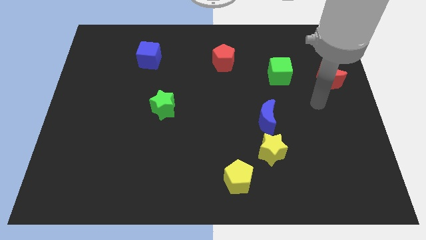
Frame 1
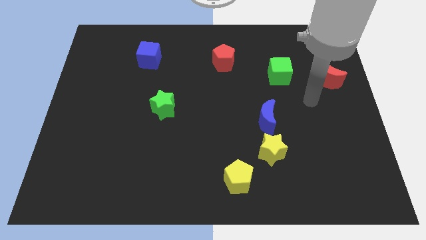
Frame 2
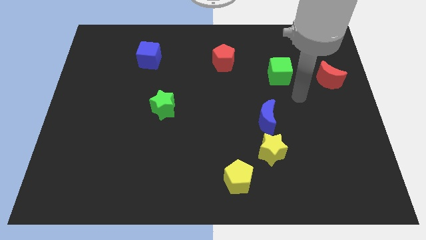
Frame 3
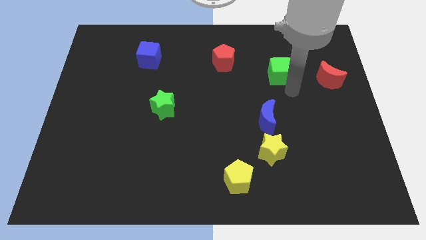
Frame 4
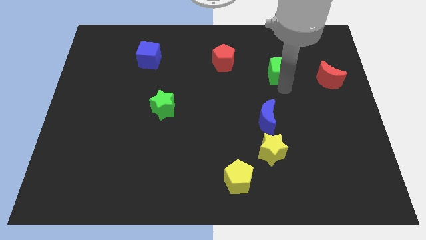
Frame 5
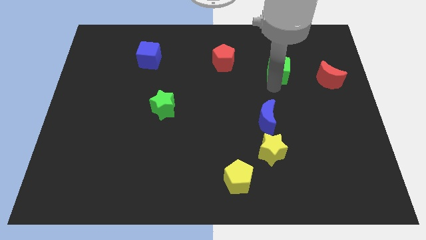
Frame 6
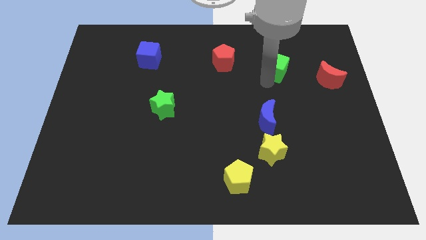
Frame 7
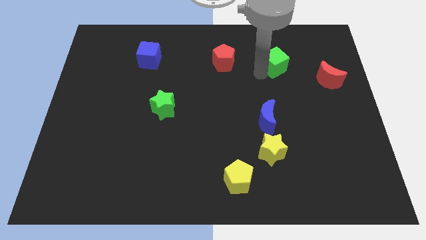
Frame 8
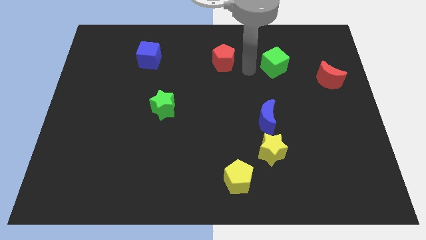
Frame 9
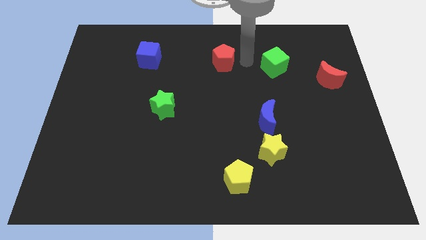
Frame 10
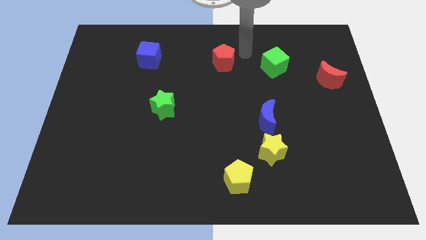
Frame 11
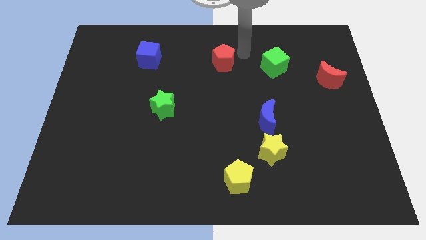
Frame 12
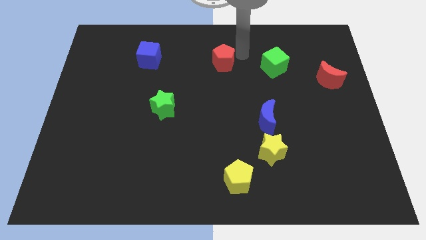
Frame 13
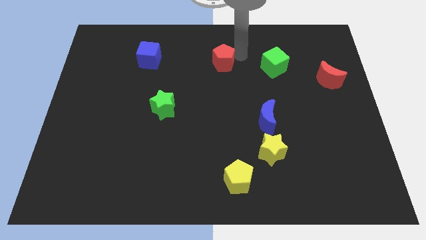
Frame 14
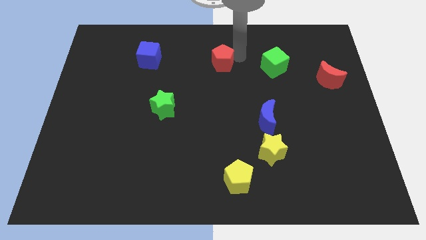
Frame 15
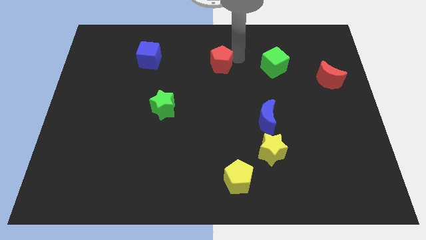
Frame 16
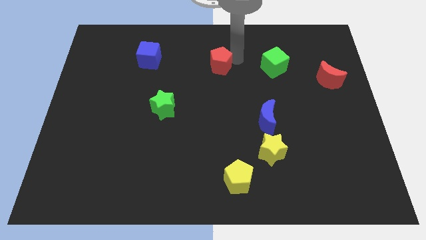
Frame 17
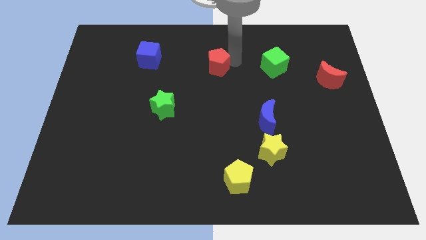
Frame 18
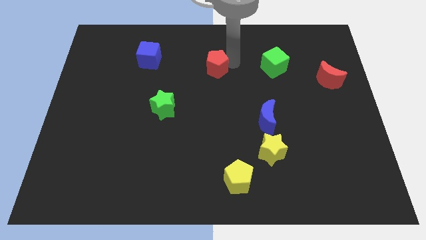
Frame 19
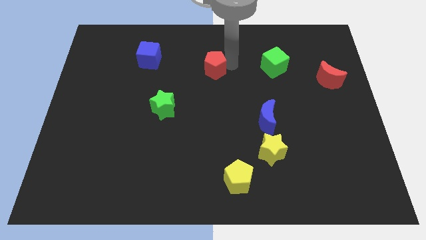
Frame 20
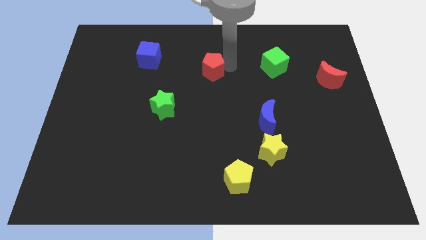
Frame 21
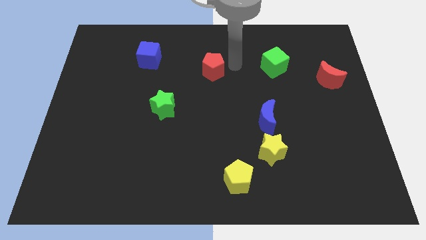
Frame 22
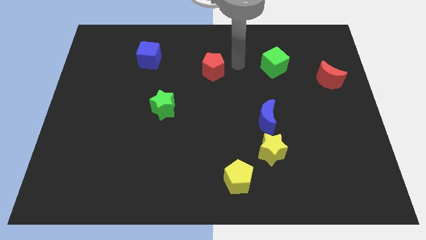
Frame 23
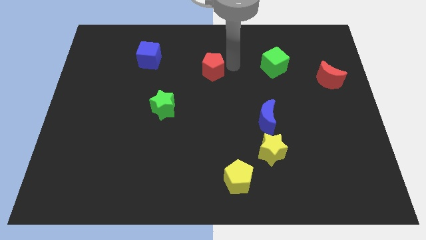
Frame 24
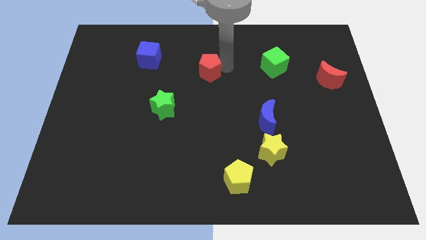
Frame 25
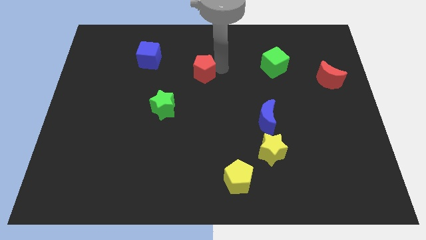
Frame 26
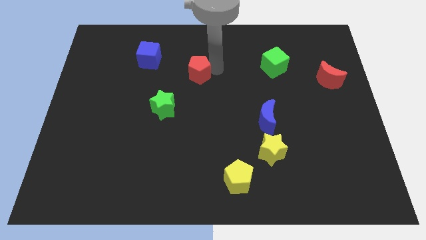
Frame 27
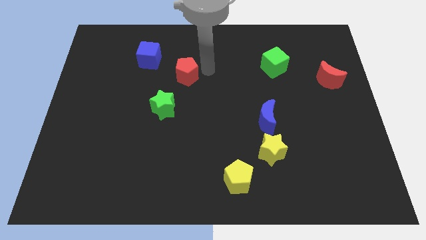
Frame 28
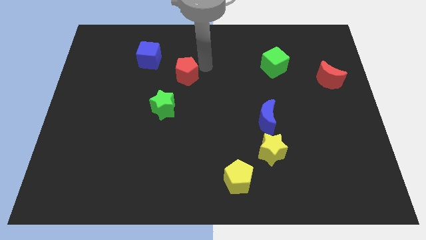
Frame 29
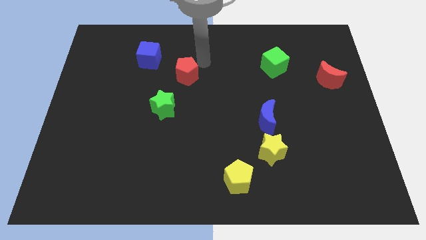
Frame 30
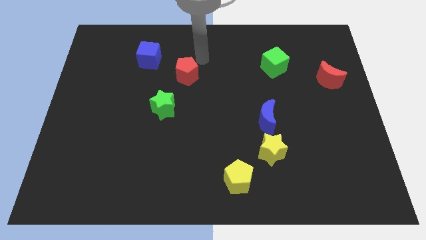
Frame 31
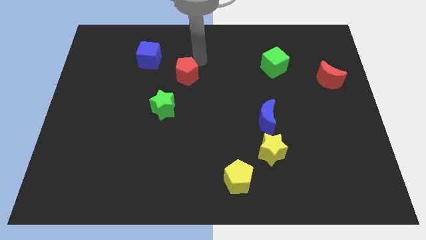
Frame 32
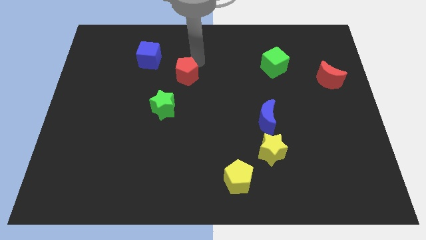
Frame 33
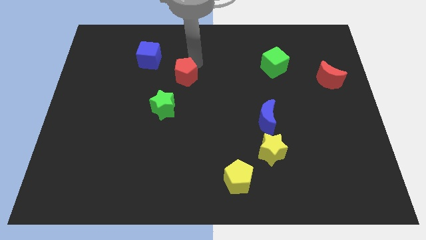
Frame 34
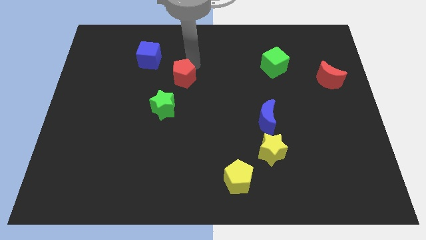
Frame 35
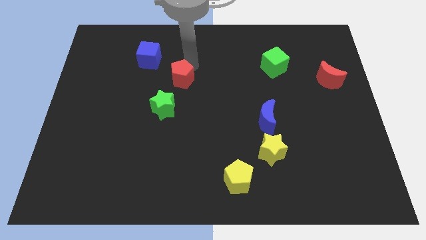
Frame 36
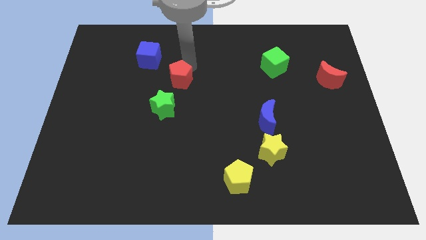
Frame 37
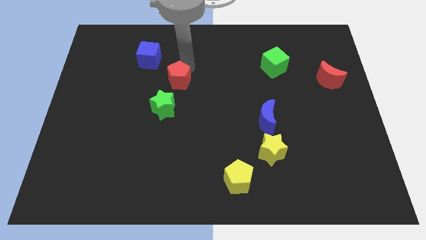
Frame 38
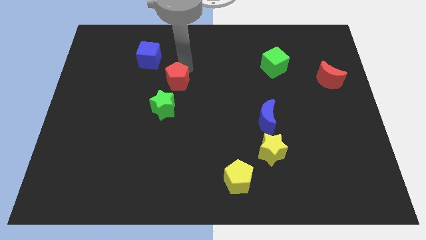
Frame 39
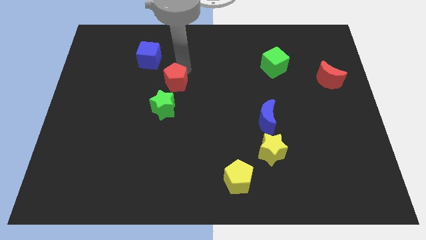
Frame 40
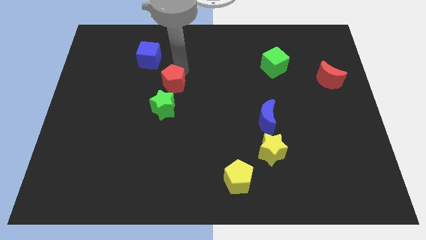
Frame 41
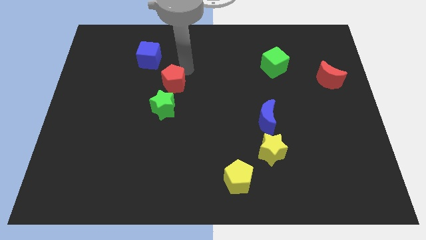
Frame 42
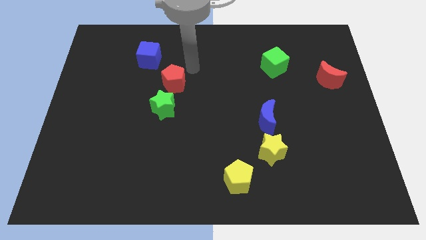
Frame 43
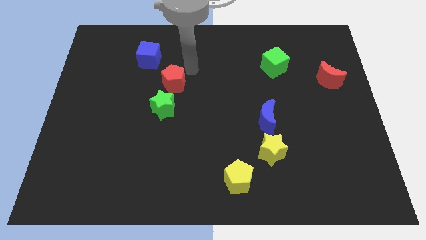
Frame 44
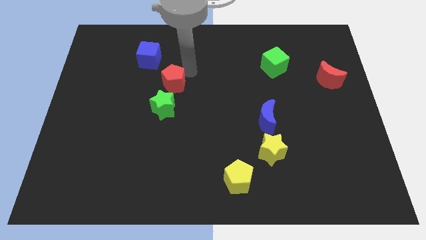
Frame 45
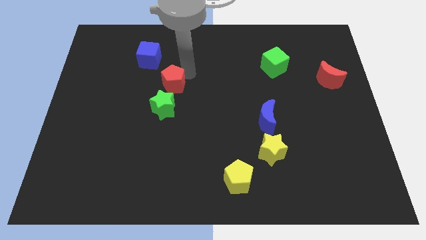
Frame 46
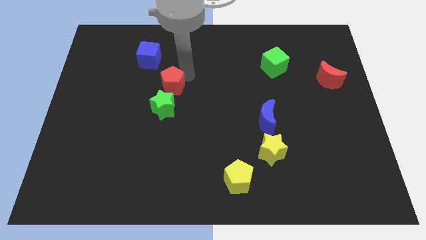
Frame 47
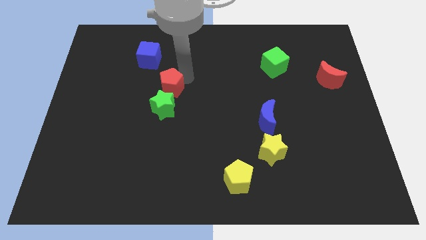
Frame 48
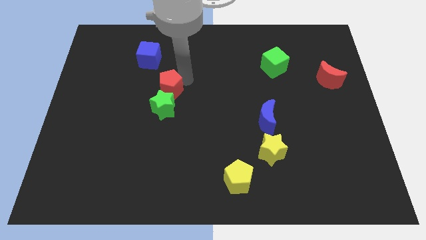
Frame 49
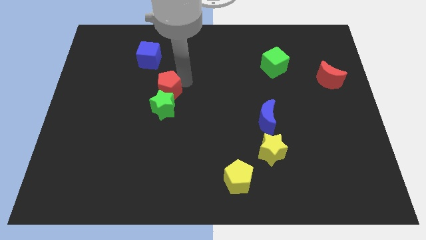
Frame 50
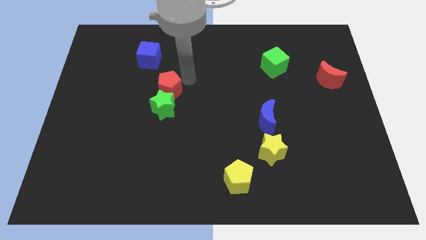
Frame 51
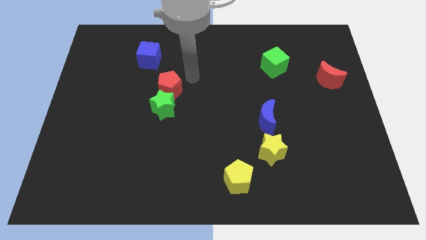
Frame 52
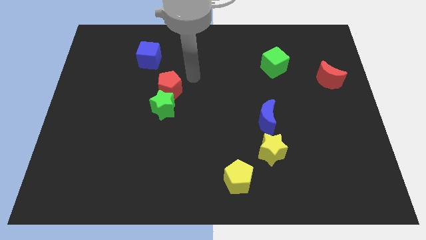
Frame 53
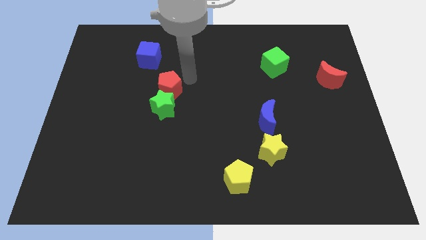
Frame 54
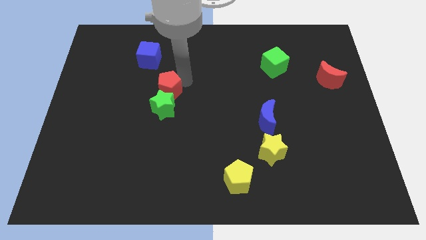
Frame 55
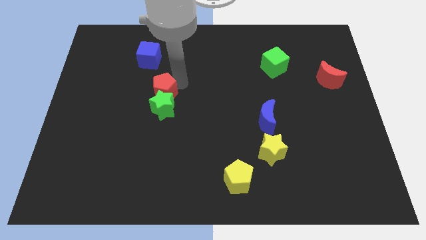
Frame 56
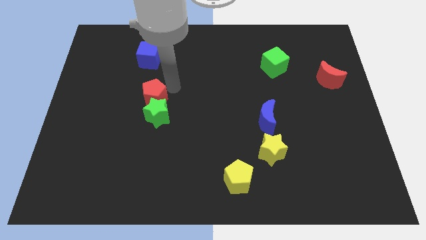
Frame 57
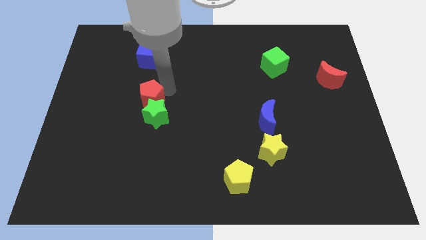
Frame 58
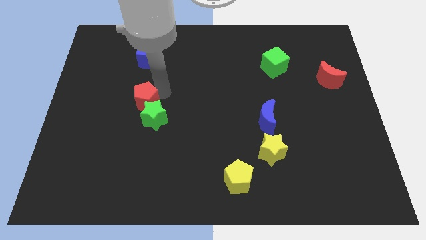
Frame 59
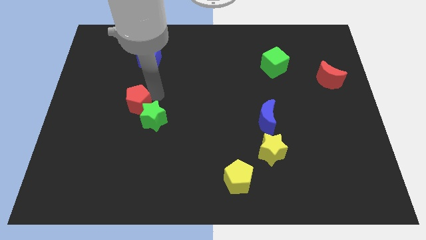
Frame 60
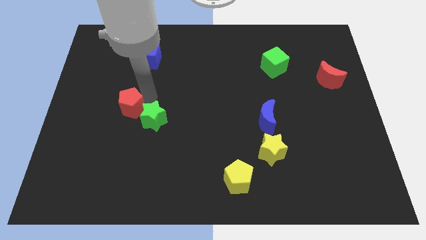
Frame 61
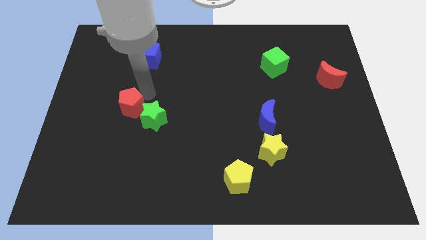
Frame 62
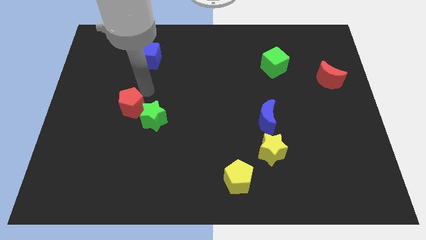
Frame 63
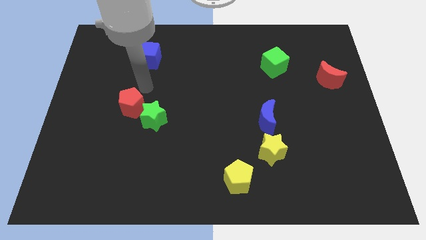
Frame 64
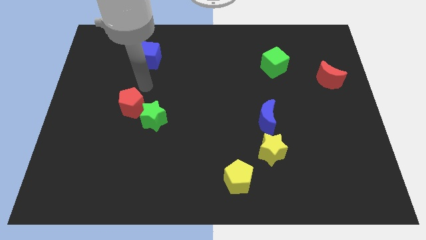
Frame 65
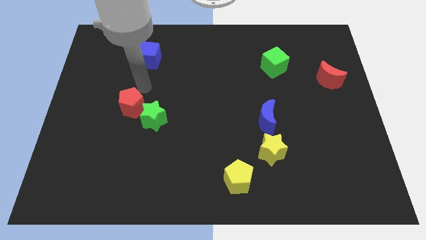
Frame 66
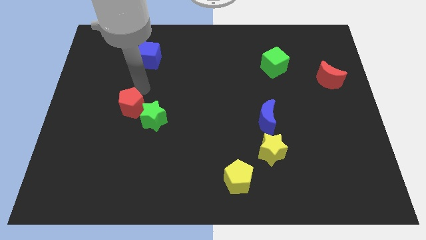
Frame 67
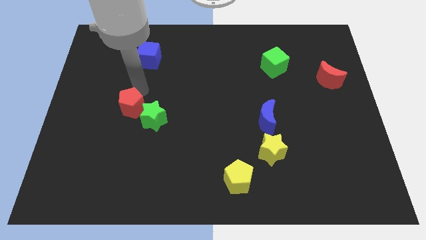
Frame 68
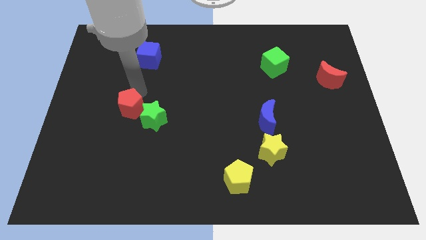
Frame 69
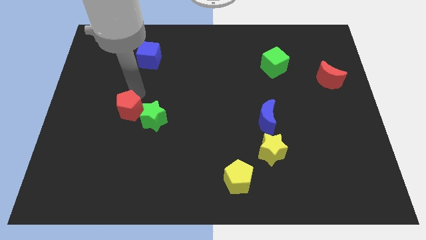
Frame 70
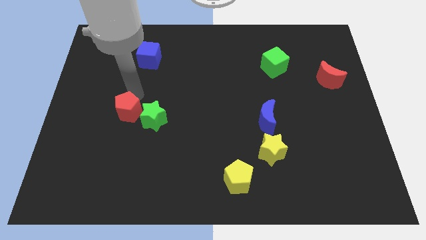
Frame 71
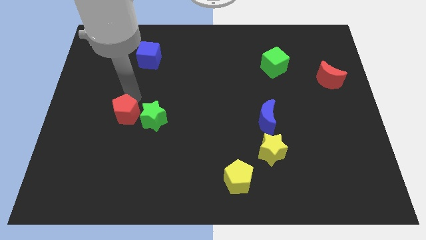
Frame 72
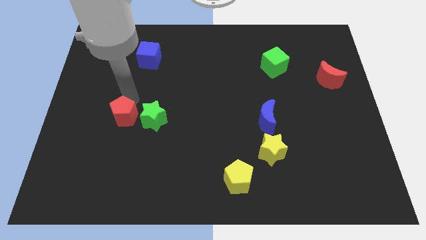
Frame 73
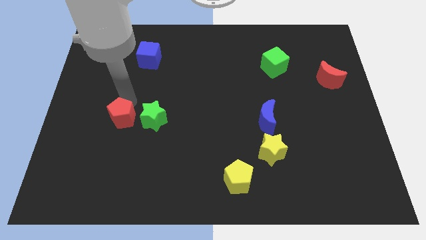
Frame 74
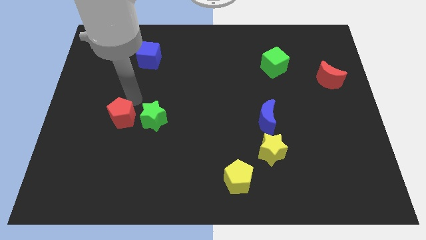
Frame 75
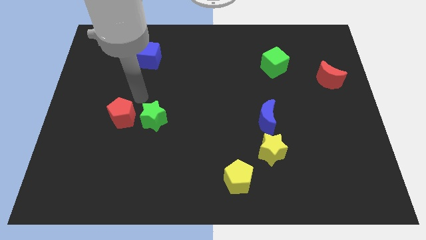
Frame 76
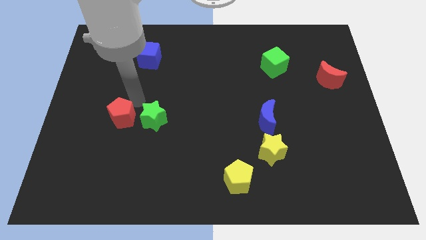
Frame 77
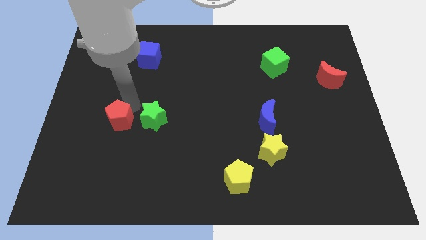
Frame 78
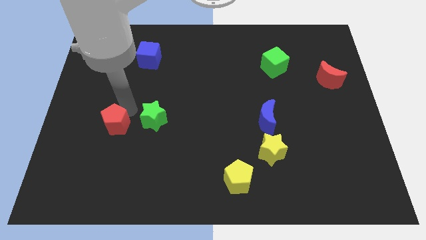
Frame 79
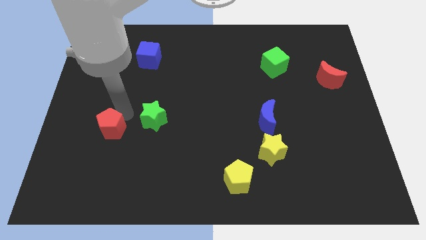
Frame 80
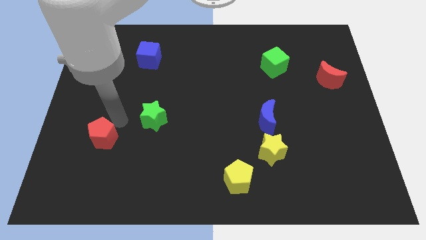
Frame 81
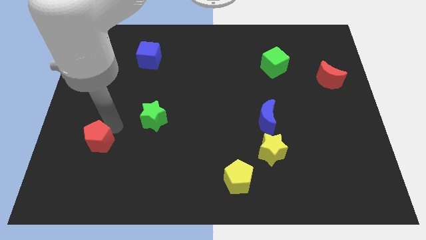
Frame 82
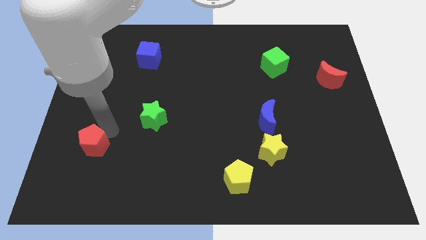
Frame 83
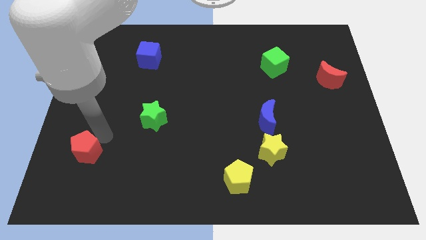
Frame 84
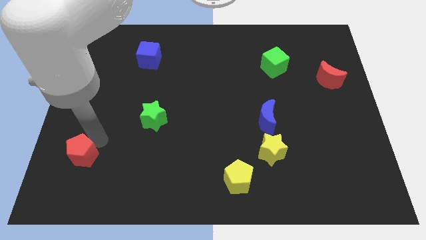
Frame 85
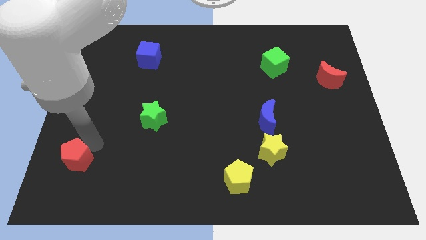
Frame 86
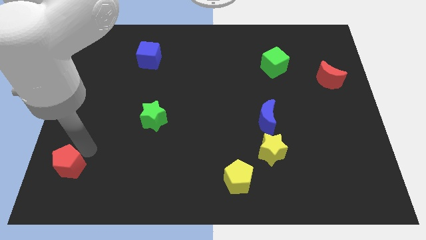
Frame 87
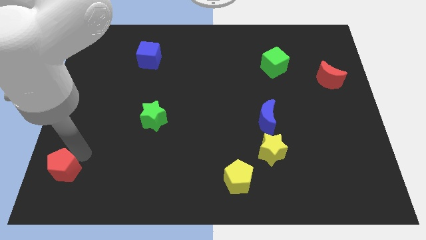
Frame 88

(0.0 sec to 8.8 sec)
put the red pentagon to the bottom left corner
